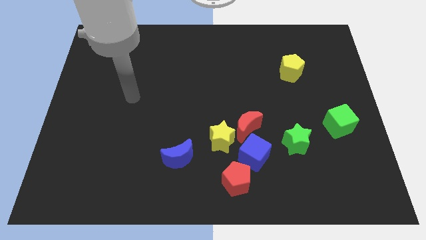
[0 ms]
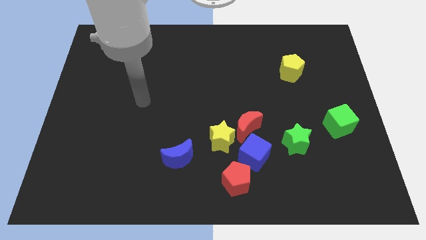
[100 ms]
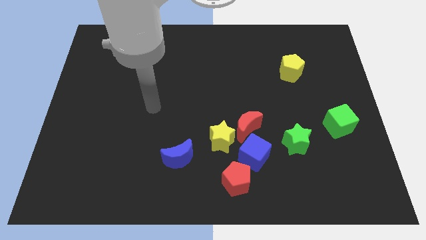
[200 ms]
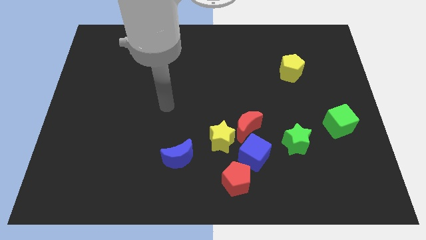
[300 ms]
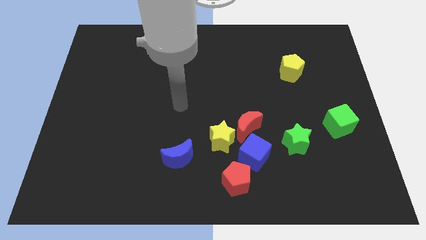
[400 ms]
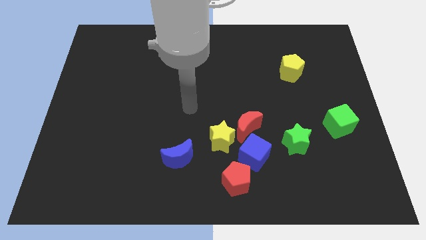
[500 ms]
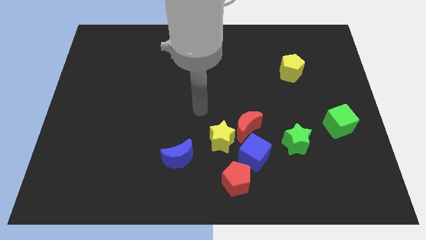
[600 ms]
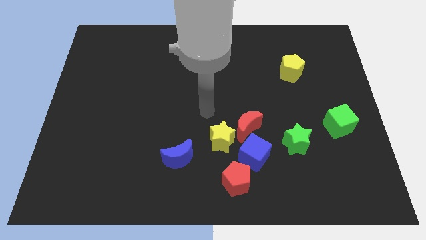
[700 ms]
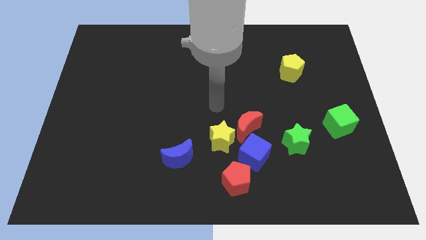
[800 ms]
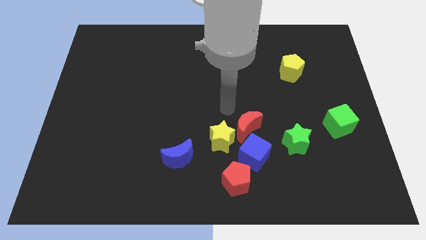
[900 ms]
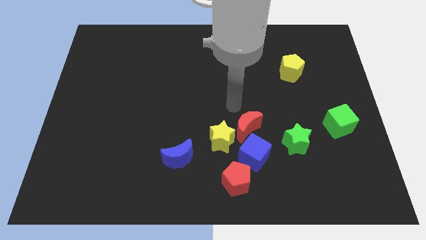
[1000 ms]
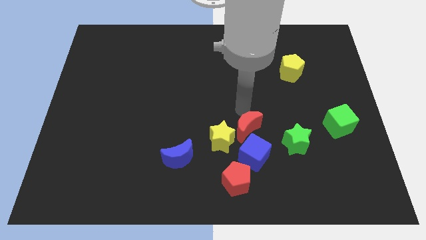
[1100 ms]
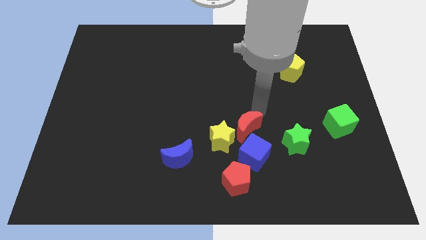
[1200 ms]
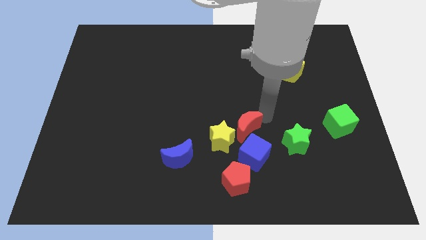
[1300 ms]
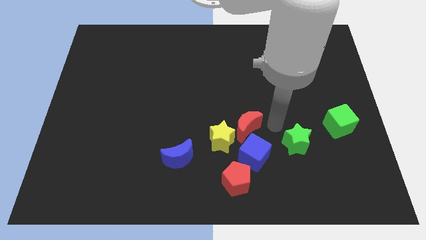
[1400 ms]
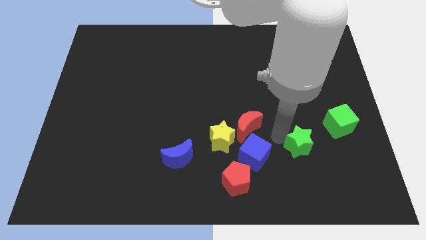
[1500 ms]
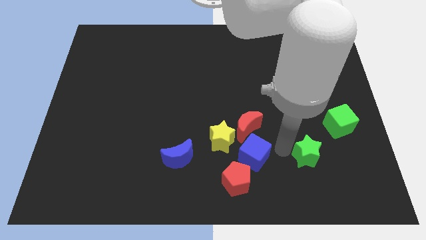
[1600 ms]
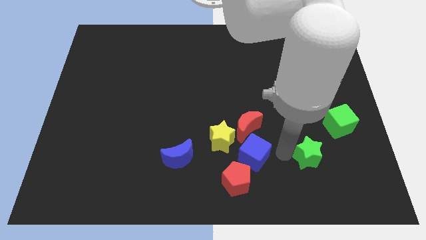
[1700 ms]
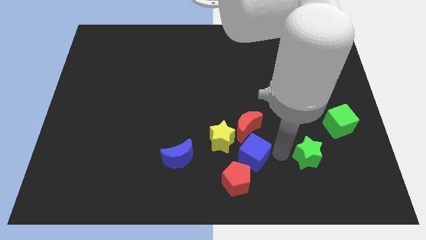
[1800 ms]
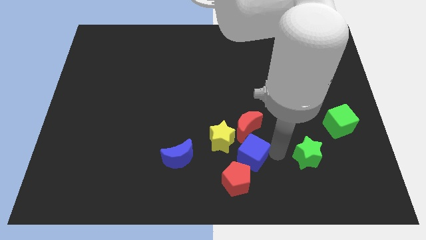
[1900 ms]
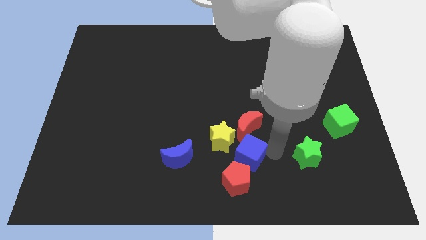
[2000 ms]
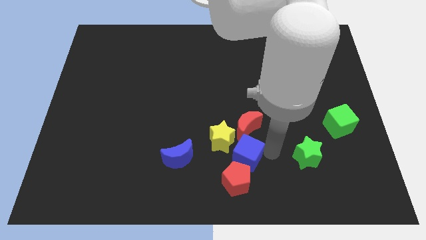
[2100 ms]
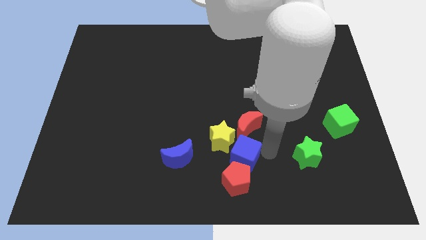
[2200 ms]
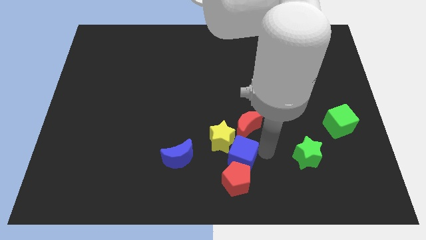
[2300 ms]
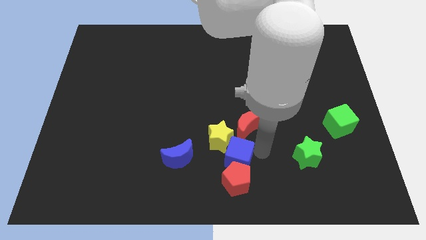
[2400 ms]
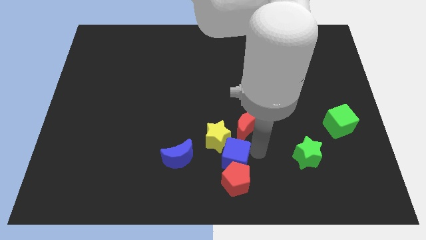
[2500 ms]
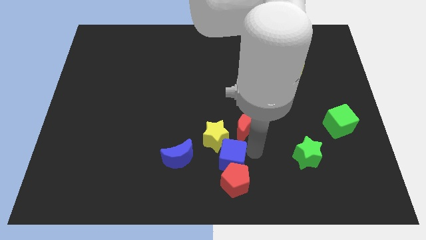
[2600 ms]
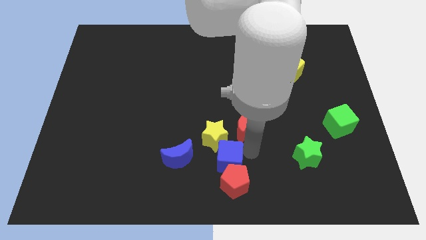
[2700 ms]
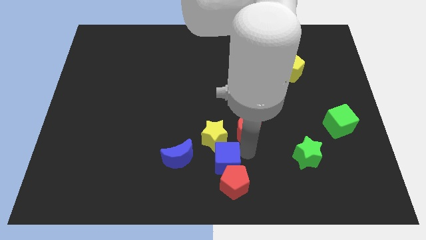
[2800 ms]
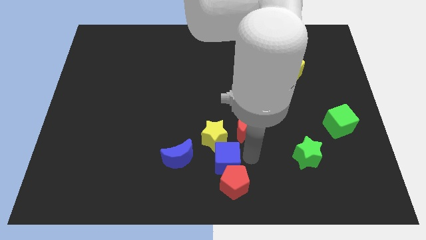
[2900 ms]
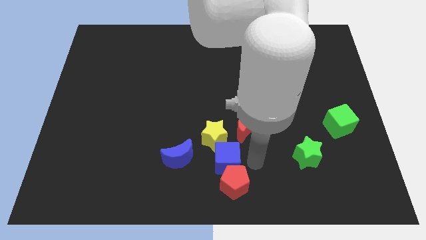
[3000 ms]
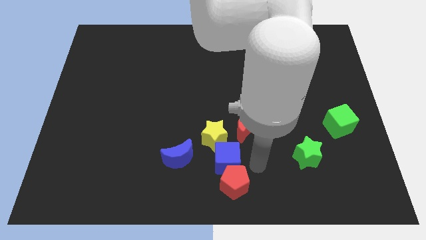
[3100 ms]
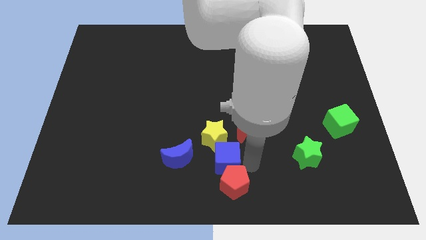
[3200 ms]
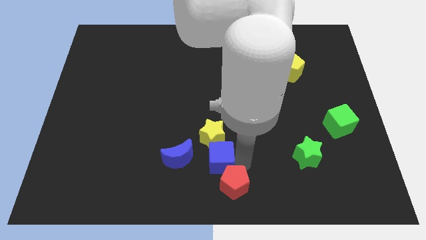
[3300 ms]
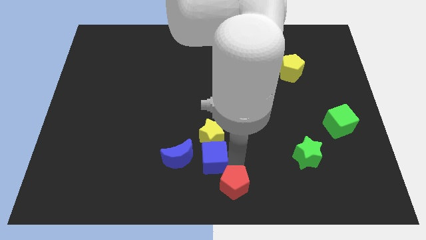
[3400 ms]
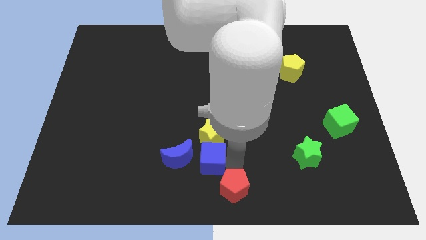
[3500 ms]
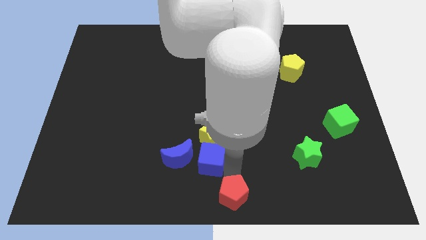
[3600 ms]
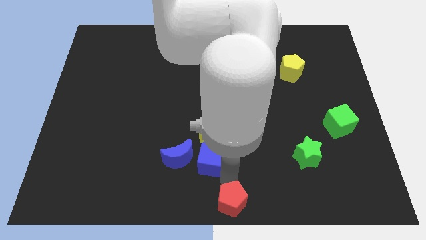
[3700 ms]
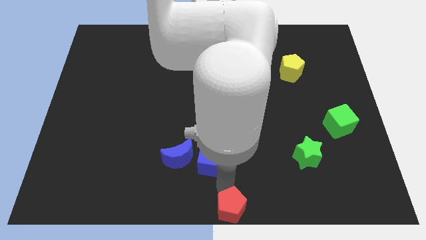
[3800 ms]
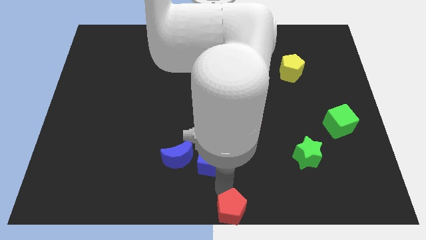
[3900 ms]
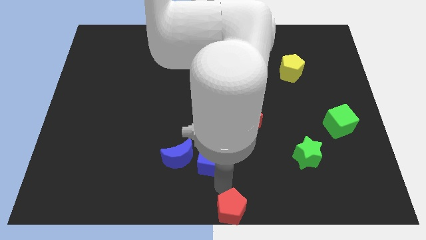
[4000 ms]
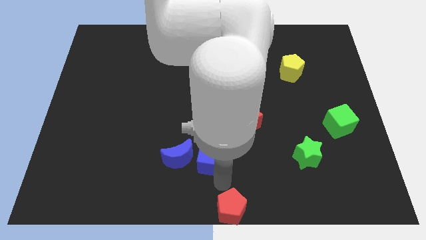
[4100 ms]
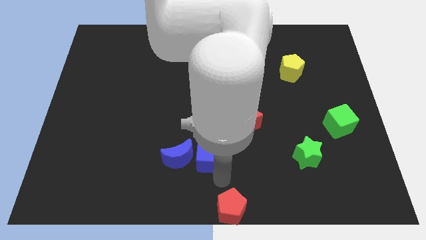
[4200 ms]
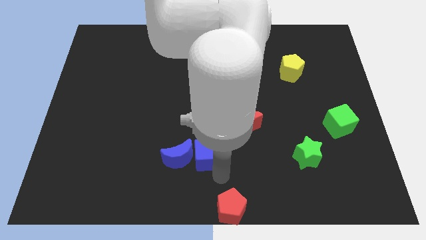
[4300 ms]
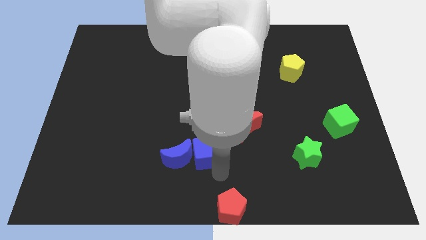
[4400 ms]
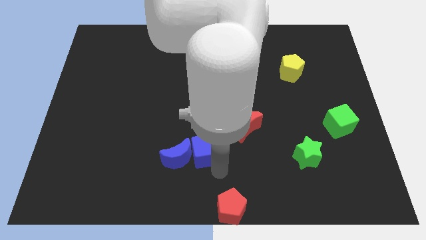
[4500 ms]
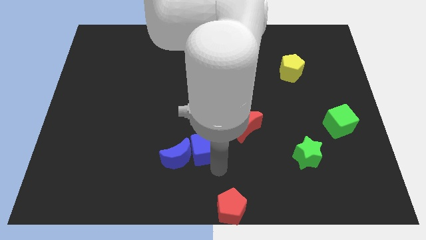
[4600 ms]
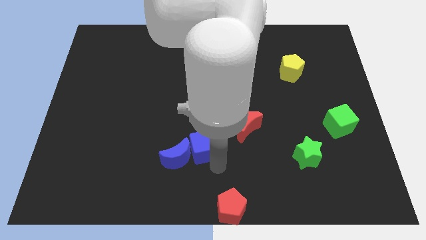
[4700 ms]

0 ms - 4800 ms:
push the blue cube a little diagonally up and left

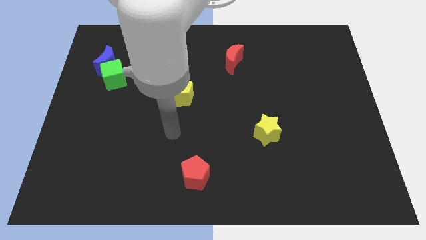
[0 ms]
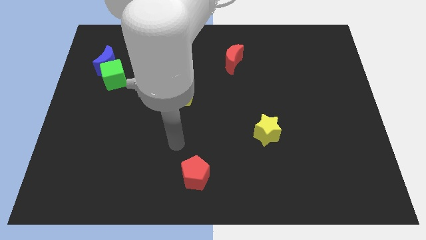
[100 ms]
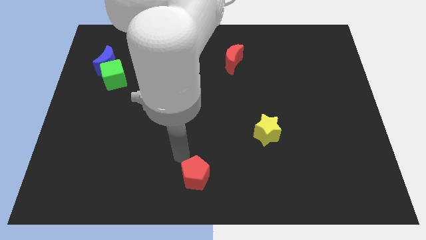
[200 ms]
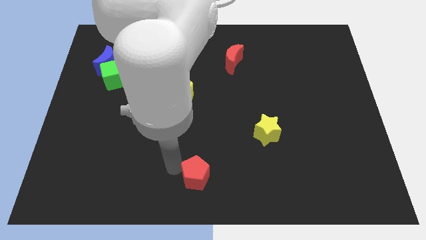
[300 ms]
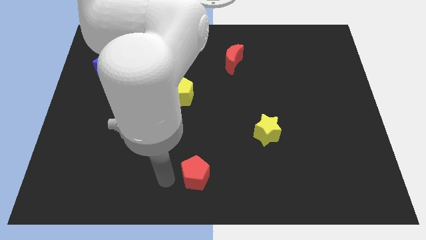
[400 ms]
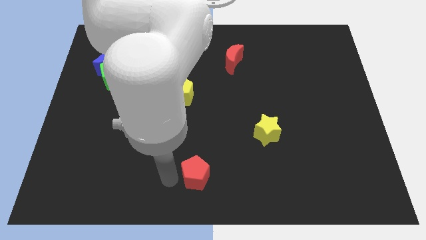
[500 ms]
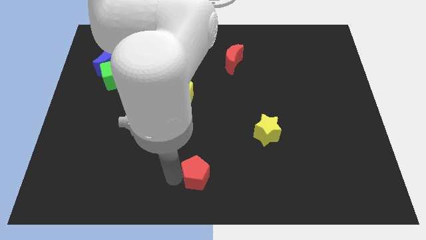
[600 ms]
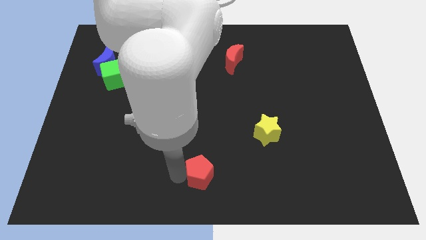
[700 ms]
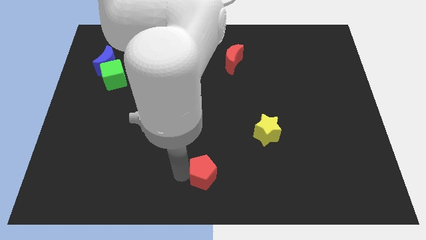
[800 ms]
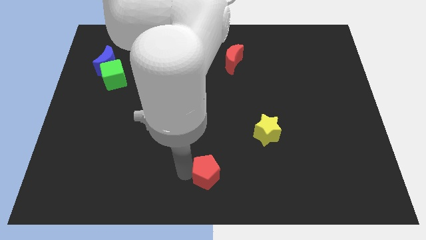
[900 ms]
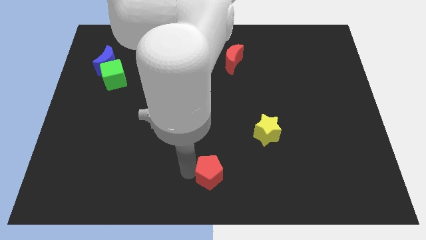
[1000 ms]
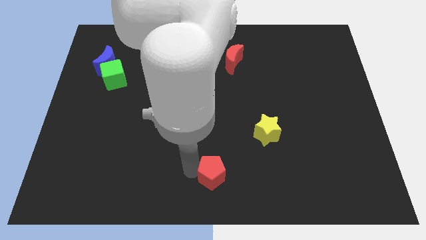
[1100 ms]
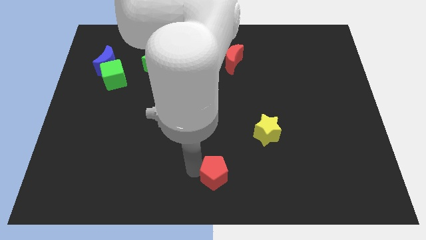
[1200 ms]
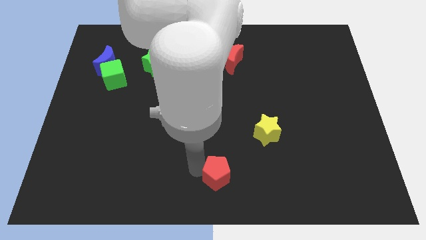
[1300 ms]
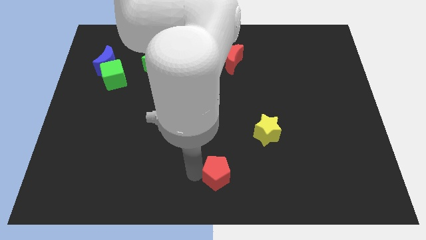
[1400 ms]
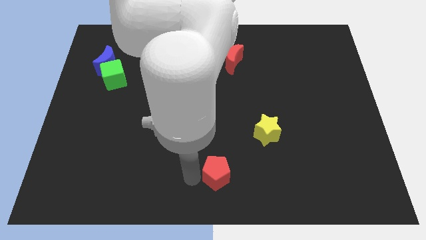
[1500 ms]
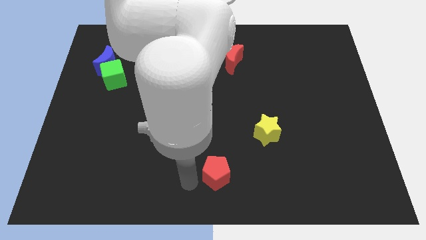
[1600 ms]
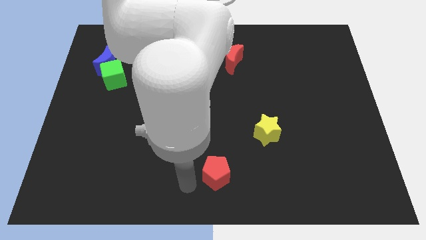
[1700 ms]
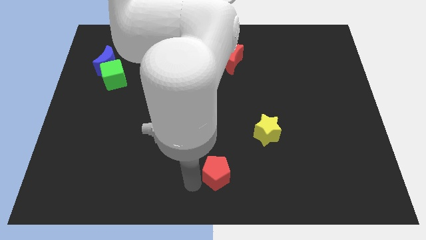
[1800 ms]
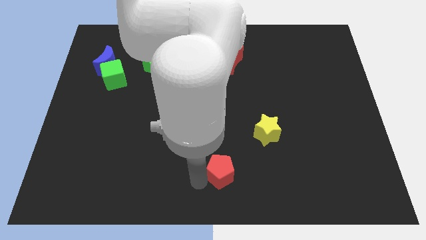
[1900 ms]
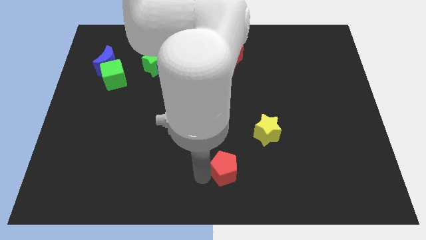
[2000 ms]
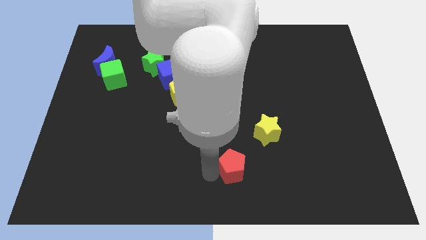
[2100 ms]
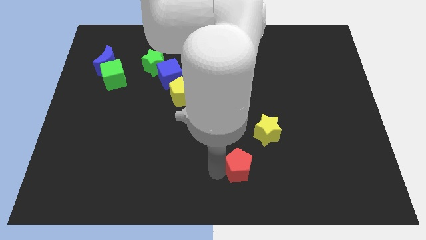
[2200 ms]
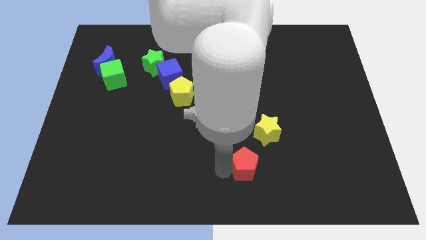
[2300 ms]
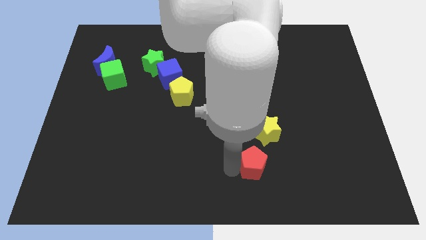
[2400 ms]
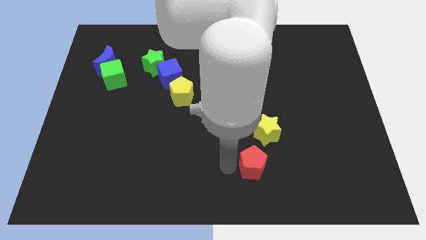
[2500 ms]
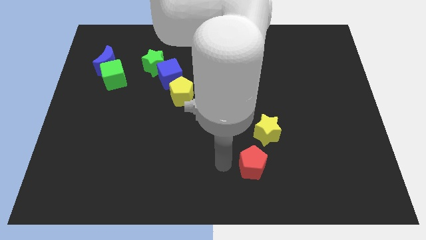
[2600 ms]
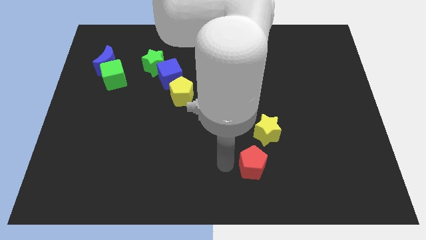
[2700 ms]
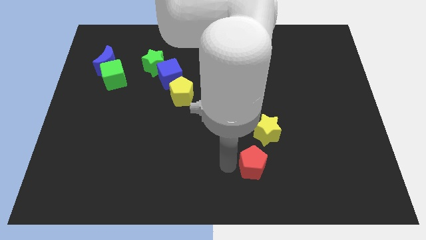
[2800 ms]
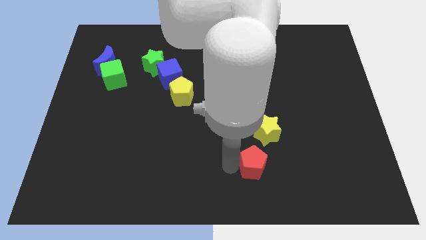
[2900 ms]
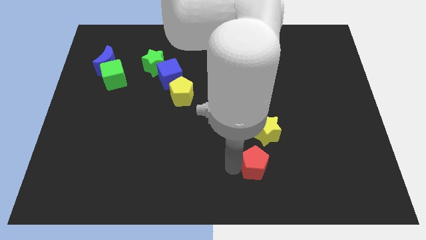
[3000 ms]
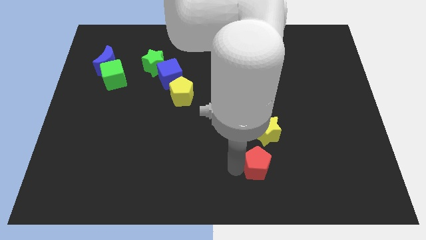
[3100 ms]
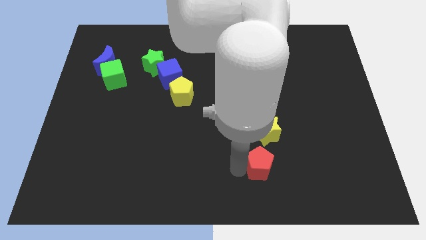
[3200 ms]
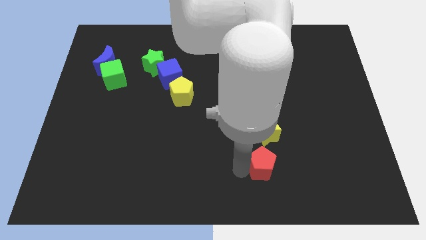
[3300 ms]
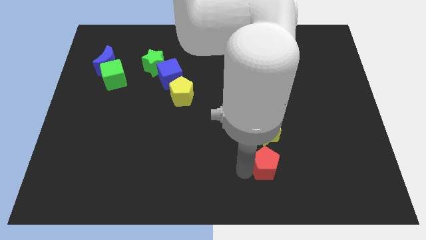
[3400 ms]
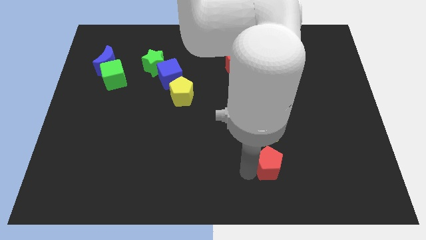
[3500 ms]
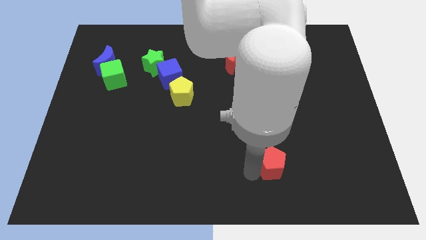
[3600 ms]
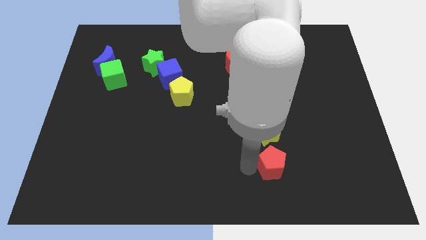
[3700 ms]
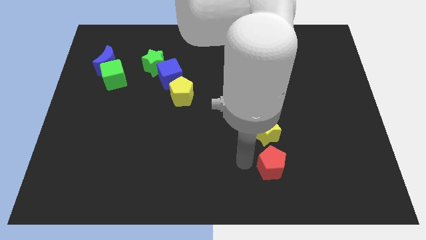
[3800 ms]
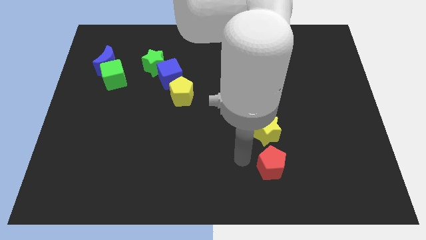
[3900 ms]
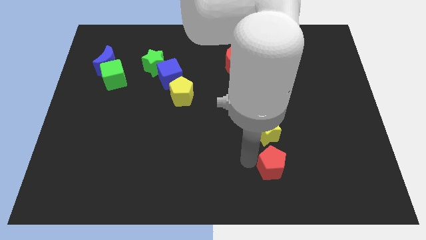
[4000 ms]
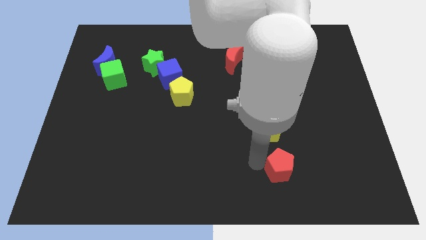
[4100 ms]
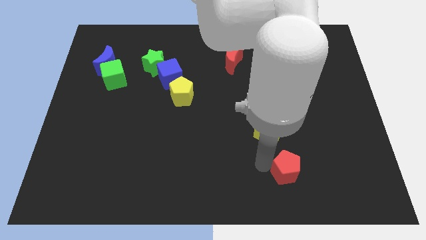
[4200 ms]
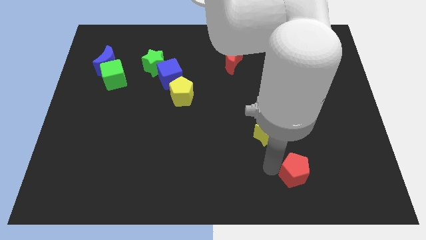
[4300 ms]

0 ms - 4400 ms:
push the red pentagon right
